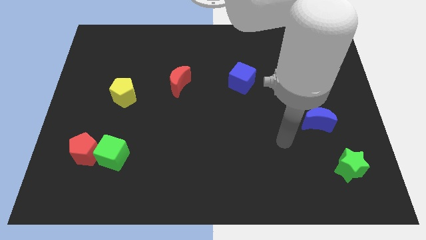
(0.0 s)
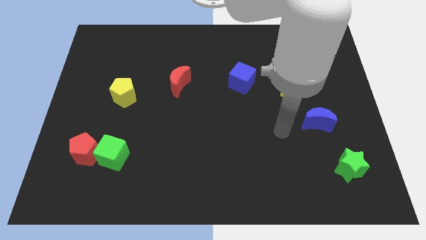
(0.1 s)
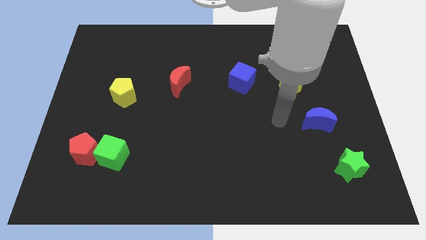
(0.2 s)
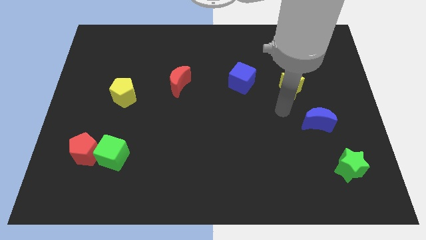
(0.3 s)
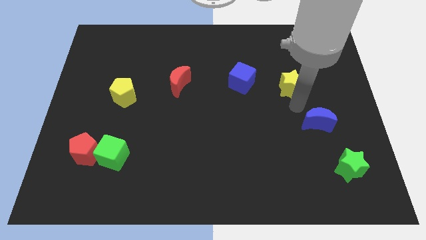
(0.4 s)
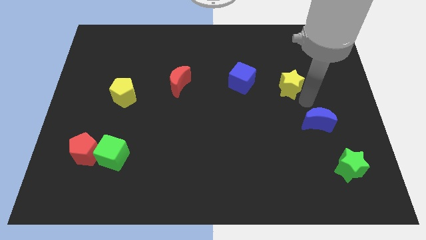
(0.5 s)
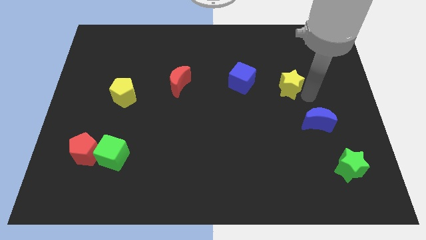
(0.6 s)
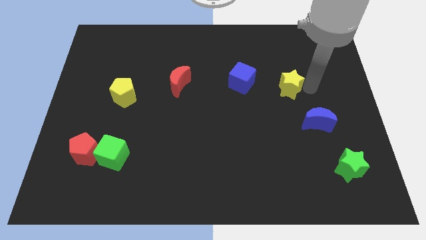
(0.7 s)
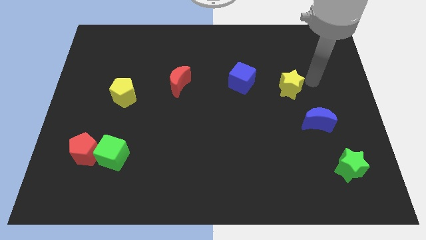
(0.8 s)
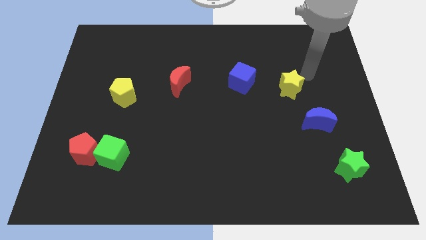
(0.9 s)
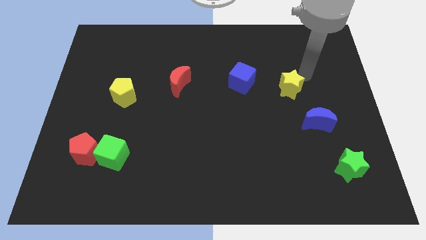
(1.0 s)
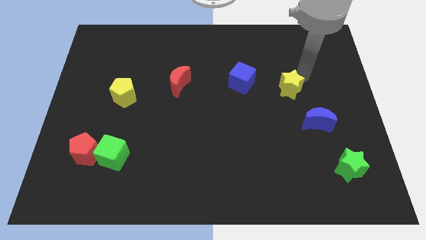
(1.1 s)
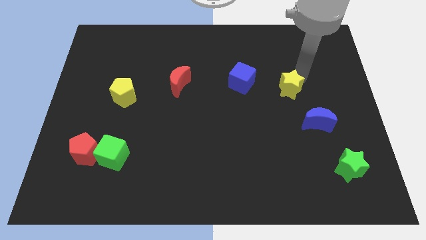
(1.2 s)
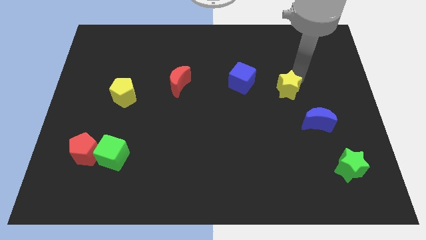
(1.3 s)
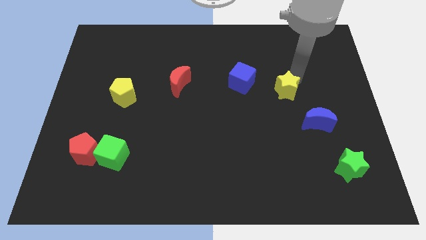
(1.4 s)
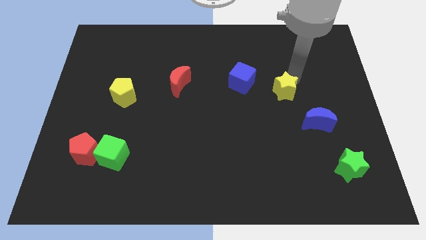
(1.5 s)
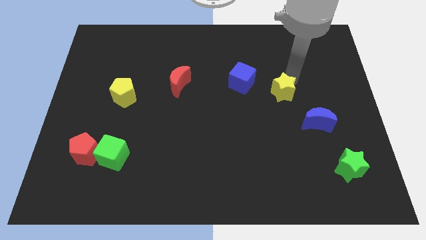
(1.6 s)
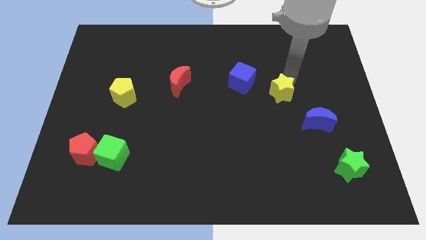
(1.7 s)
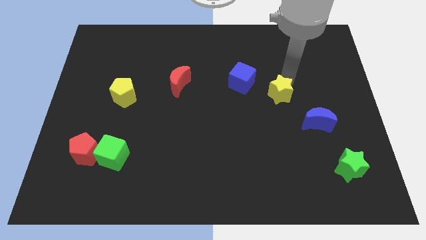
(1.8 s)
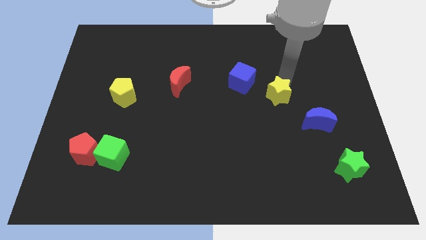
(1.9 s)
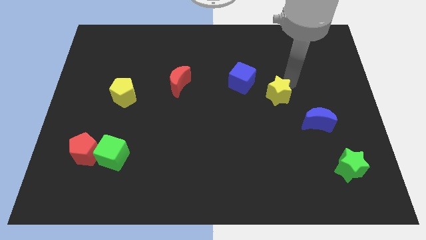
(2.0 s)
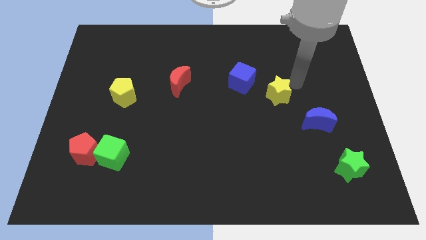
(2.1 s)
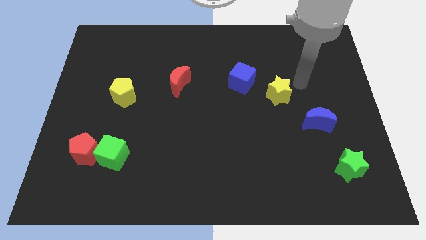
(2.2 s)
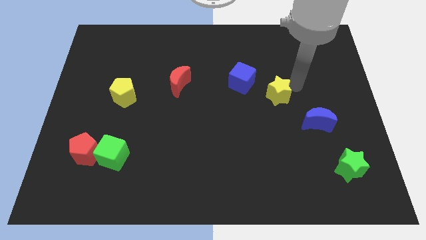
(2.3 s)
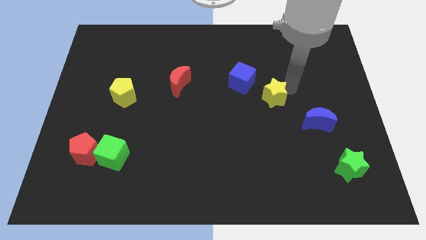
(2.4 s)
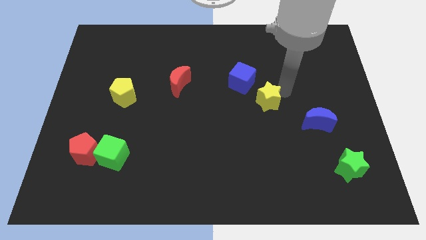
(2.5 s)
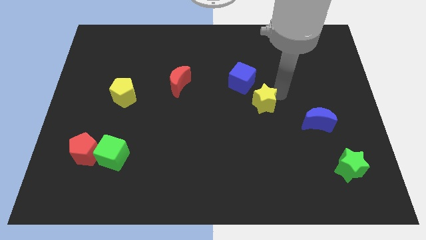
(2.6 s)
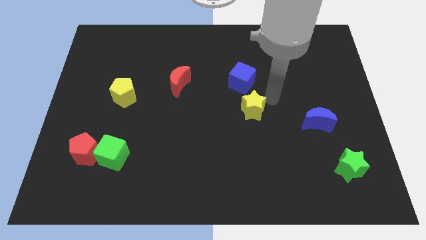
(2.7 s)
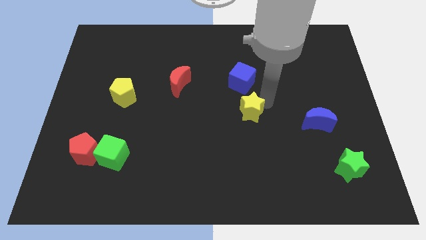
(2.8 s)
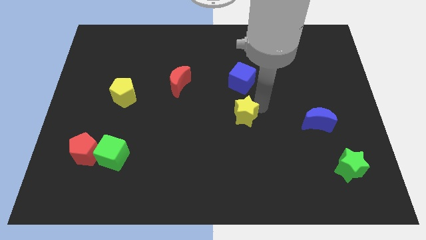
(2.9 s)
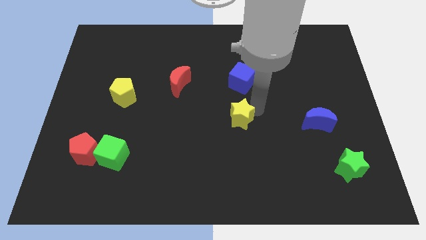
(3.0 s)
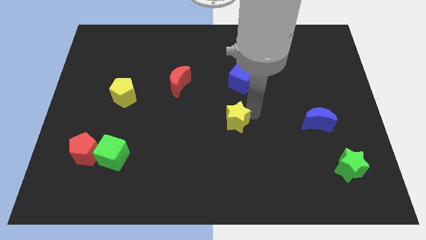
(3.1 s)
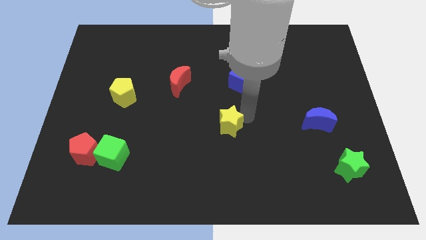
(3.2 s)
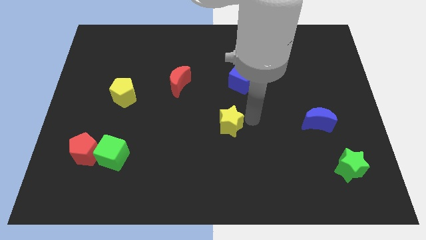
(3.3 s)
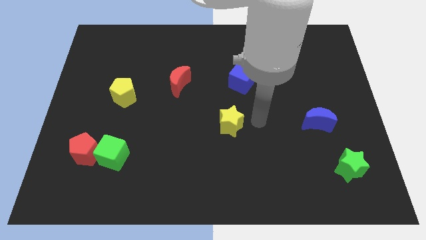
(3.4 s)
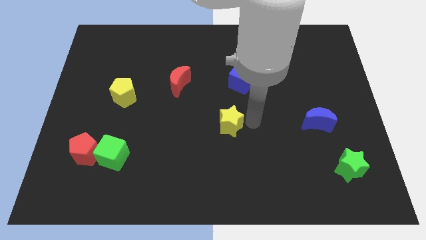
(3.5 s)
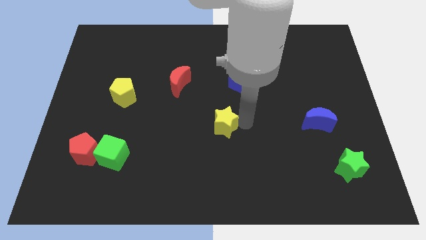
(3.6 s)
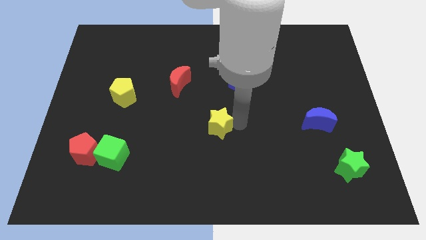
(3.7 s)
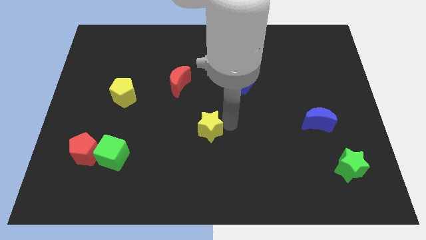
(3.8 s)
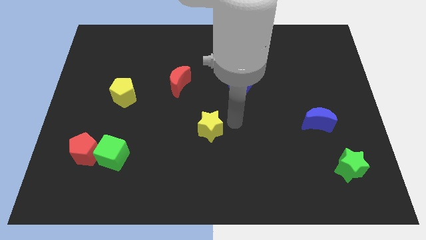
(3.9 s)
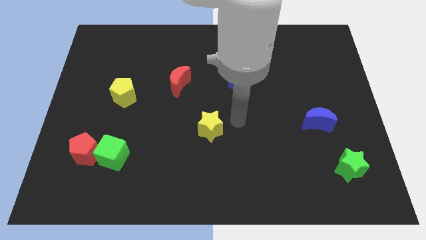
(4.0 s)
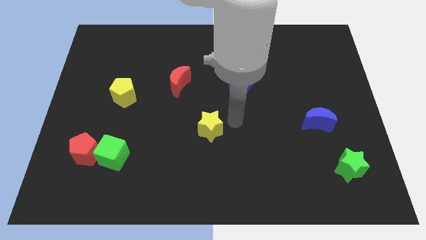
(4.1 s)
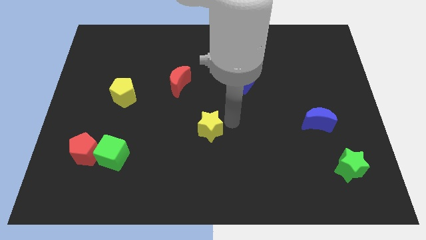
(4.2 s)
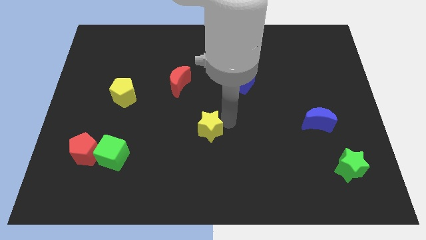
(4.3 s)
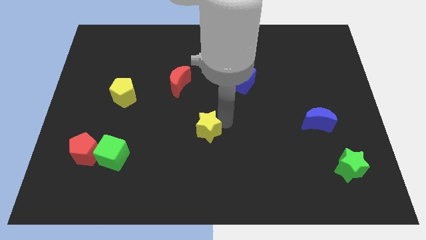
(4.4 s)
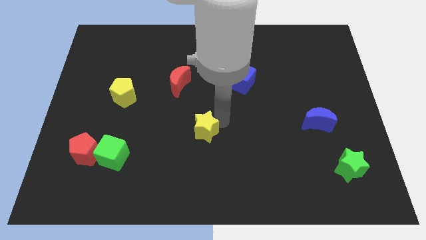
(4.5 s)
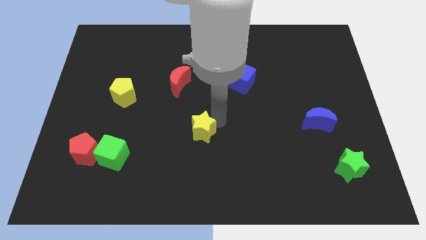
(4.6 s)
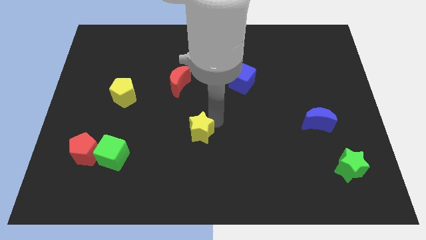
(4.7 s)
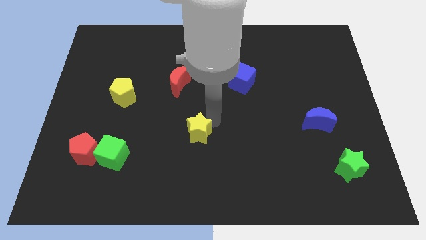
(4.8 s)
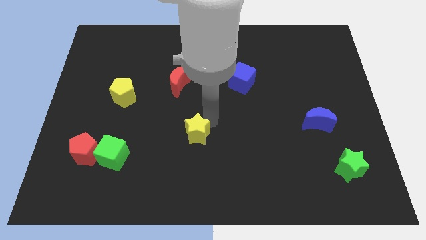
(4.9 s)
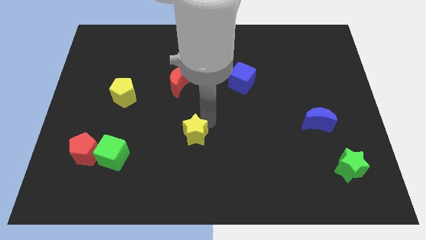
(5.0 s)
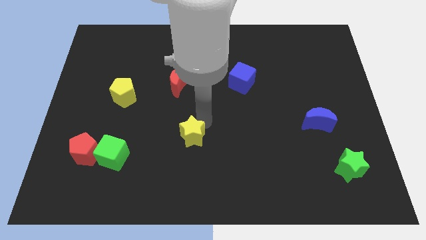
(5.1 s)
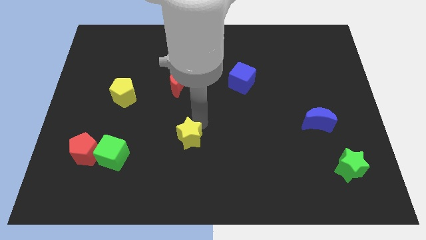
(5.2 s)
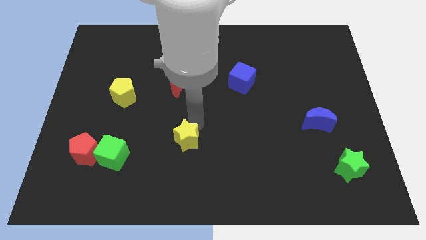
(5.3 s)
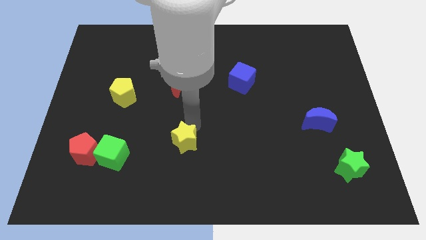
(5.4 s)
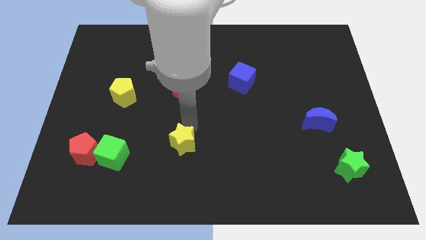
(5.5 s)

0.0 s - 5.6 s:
push the yellow star to the right side of the green cube

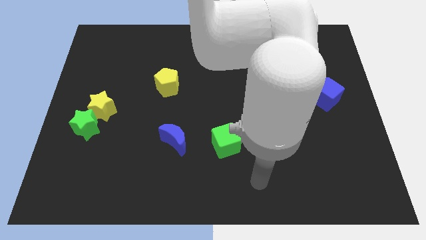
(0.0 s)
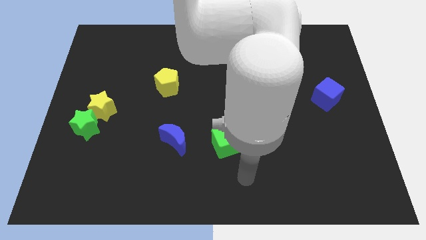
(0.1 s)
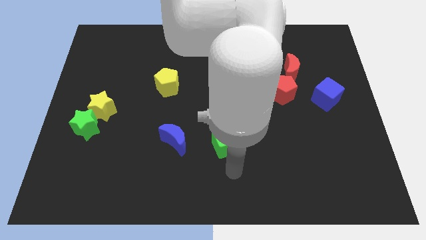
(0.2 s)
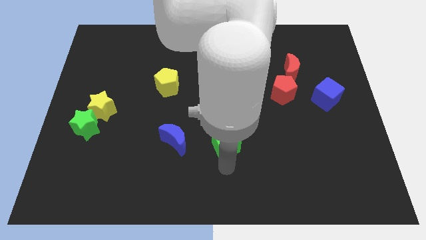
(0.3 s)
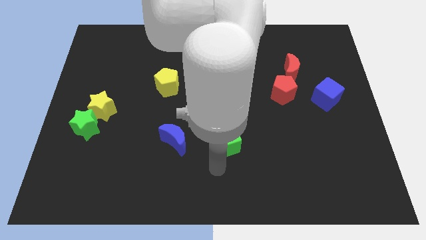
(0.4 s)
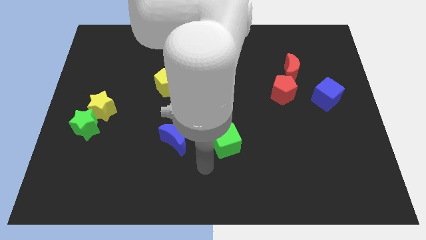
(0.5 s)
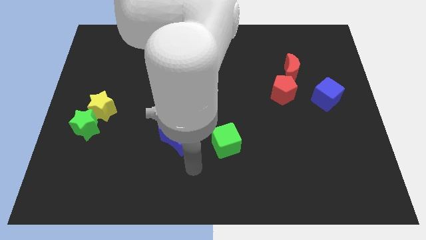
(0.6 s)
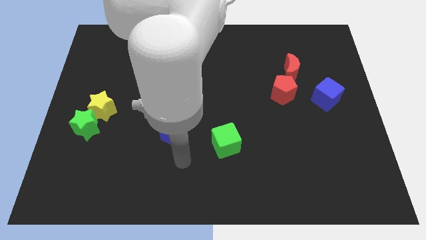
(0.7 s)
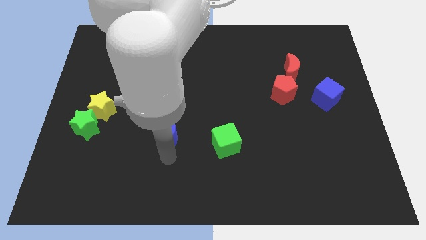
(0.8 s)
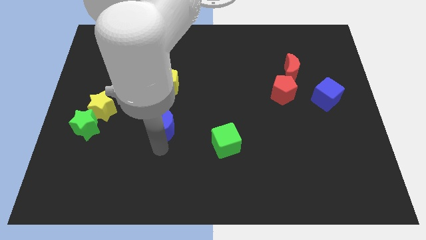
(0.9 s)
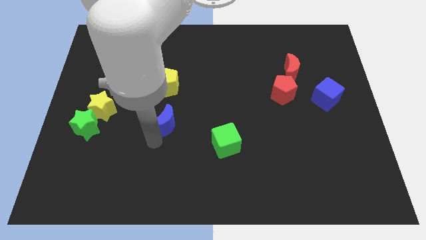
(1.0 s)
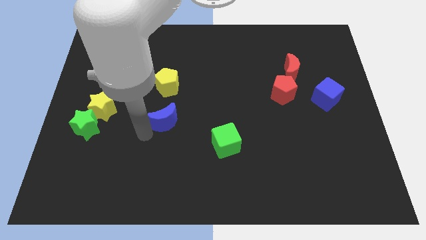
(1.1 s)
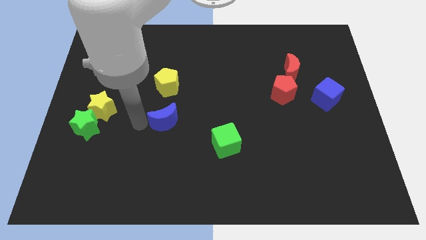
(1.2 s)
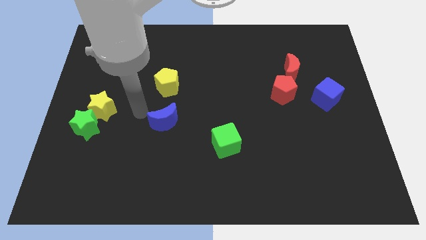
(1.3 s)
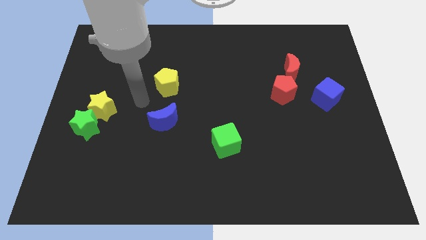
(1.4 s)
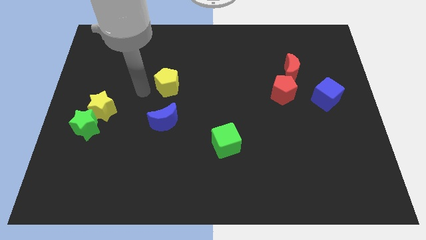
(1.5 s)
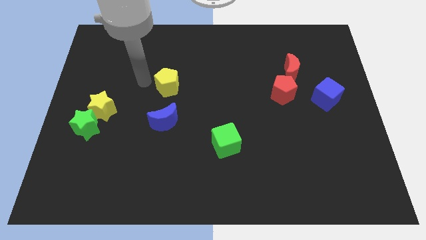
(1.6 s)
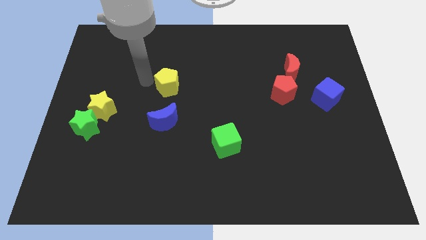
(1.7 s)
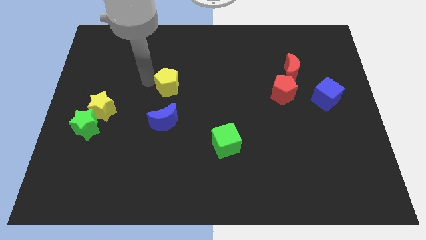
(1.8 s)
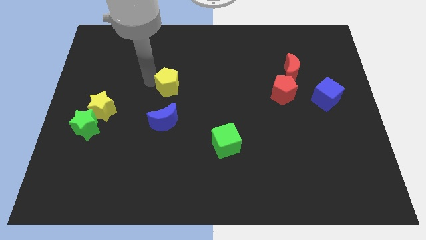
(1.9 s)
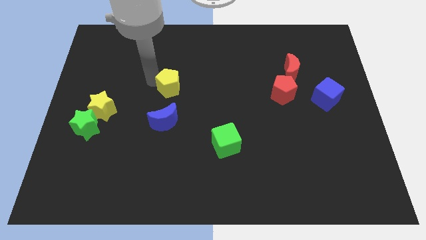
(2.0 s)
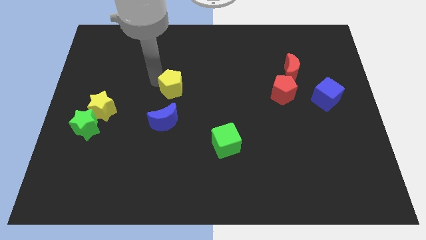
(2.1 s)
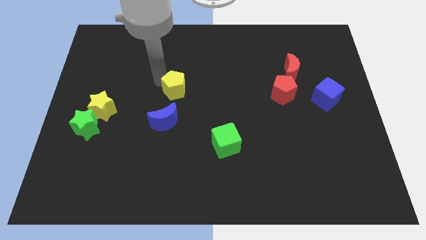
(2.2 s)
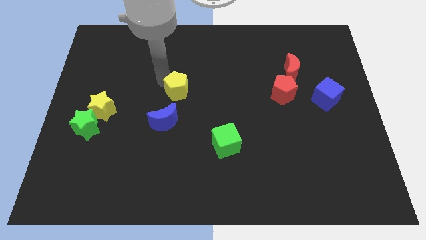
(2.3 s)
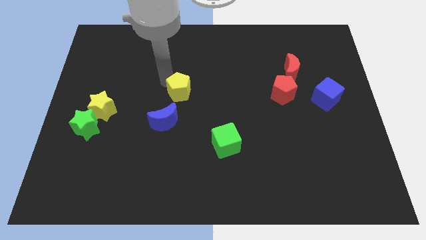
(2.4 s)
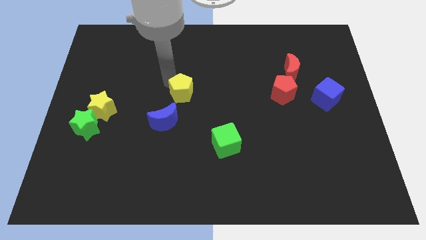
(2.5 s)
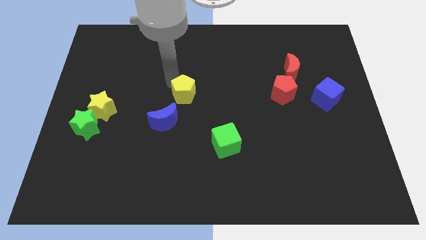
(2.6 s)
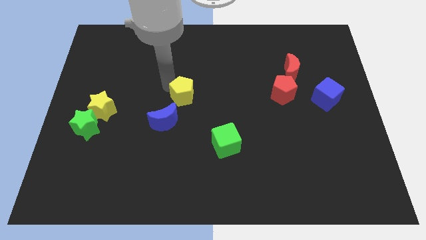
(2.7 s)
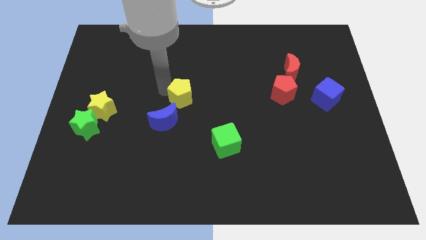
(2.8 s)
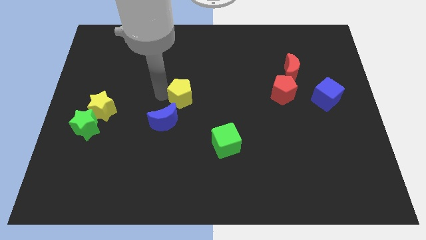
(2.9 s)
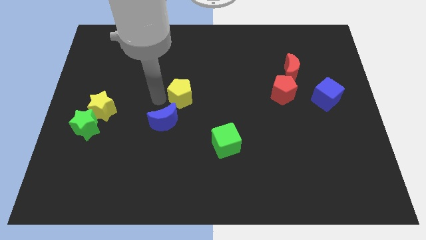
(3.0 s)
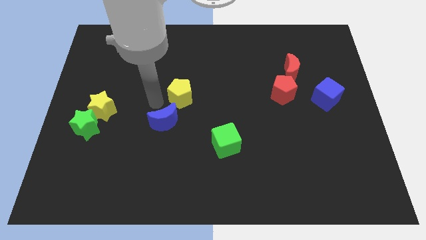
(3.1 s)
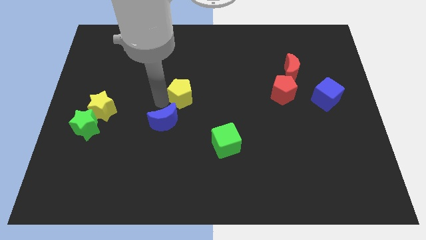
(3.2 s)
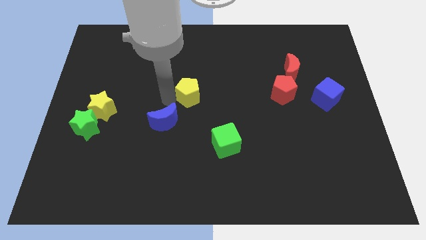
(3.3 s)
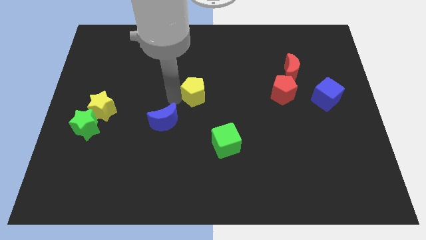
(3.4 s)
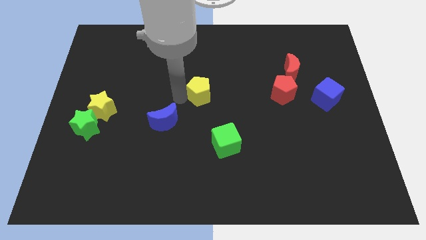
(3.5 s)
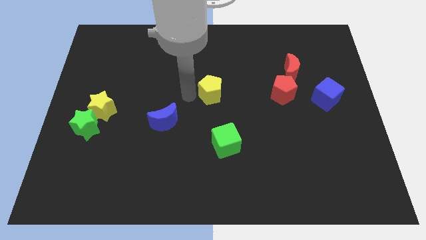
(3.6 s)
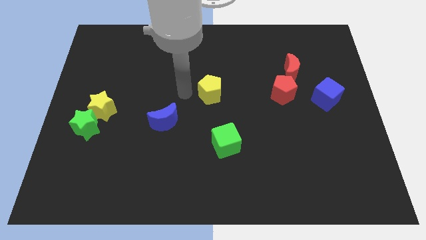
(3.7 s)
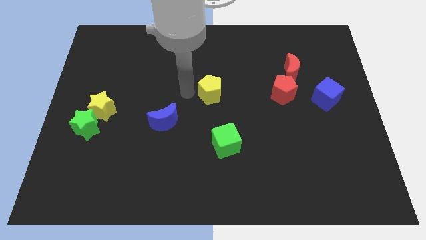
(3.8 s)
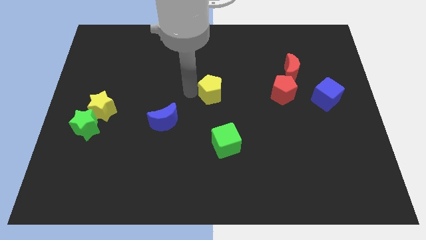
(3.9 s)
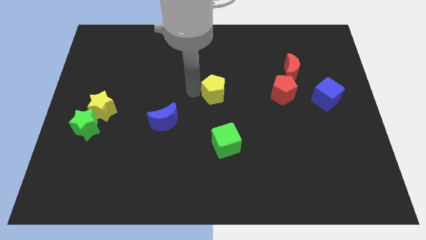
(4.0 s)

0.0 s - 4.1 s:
put the yellow pentagon to the left side of the red pentagon
